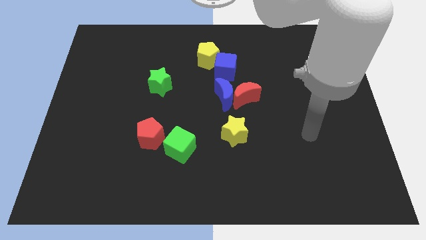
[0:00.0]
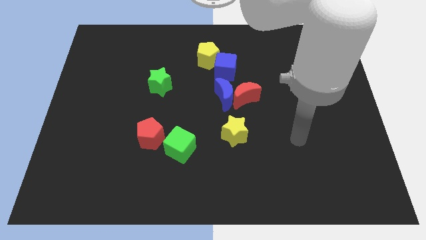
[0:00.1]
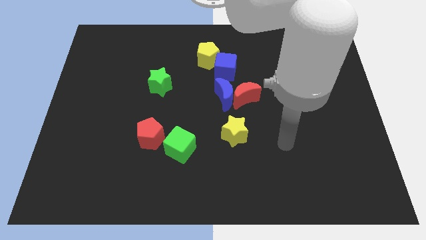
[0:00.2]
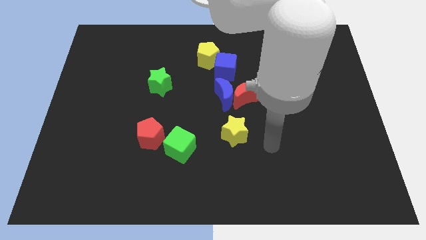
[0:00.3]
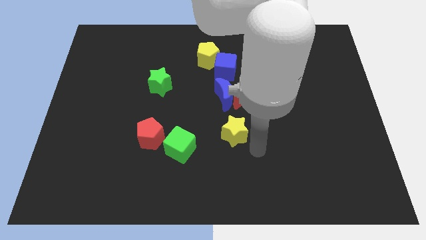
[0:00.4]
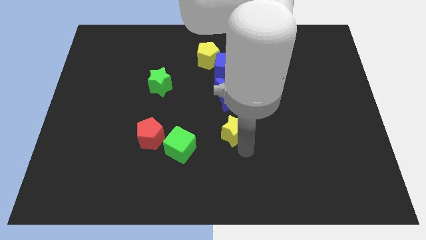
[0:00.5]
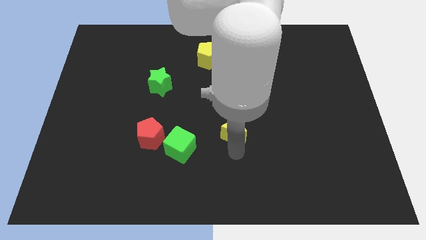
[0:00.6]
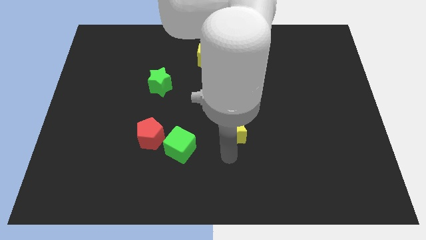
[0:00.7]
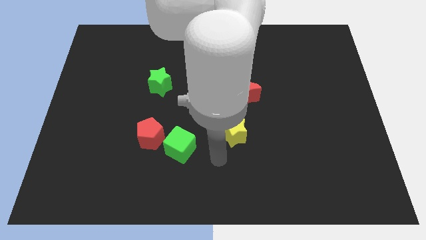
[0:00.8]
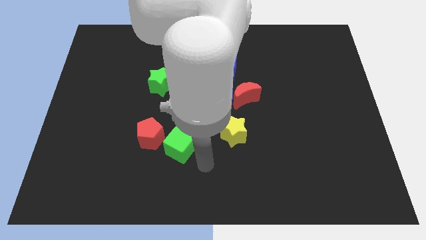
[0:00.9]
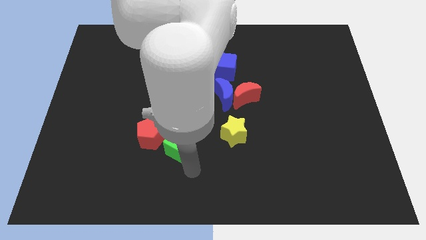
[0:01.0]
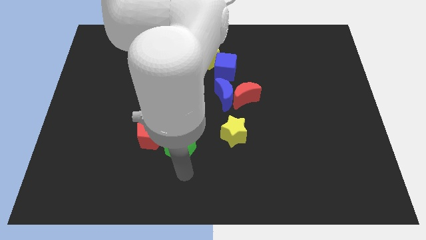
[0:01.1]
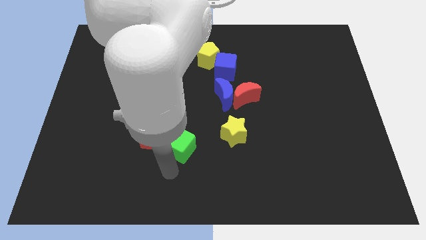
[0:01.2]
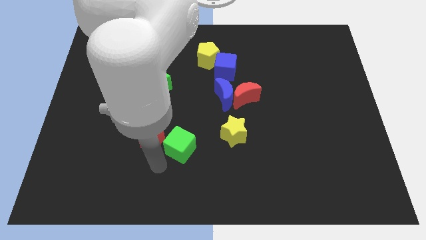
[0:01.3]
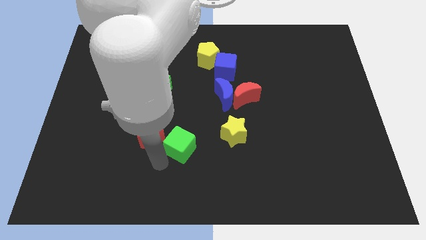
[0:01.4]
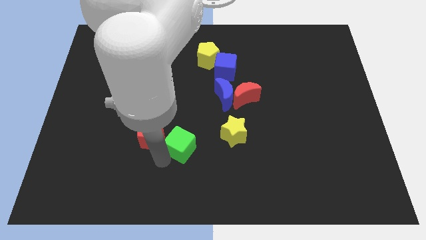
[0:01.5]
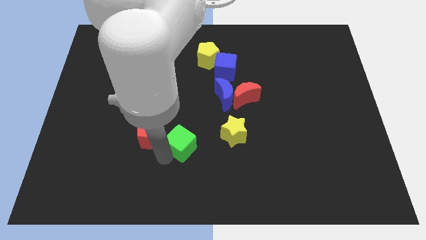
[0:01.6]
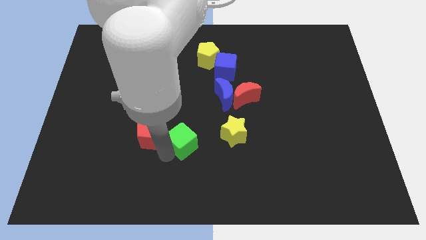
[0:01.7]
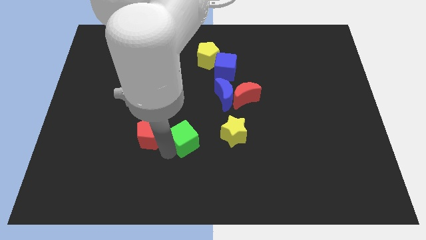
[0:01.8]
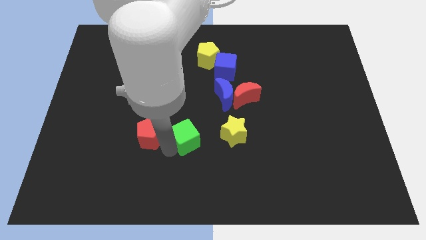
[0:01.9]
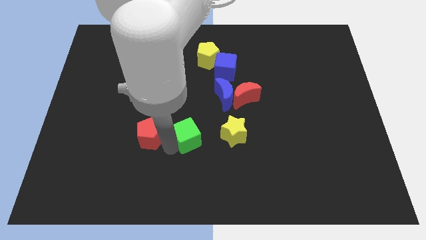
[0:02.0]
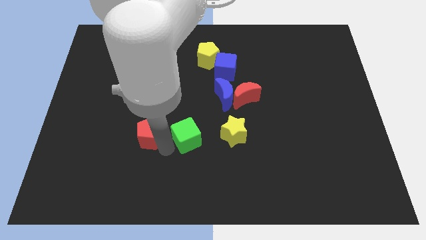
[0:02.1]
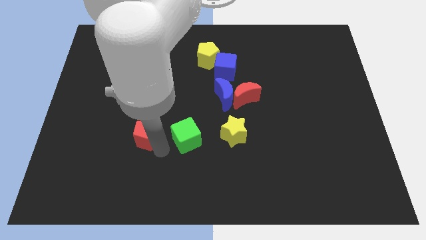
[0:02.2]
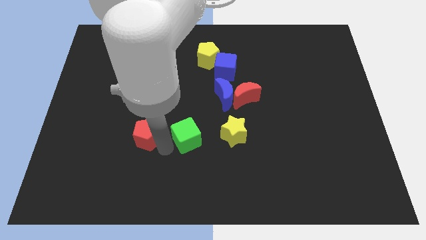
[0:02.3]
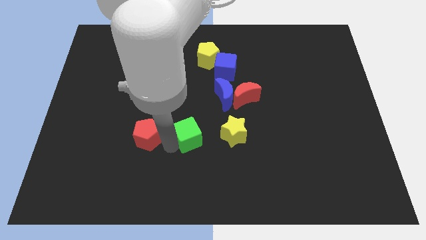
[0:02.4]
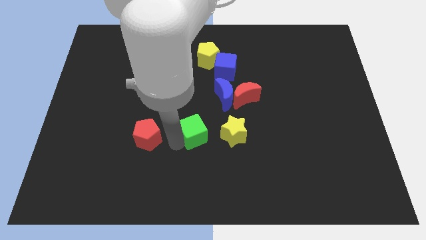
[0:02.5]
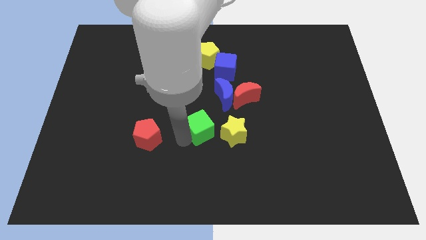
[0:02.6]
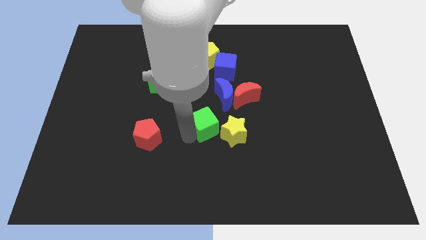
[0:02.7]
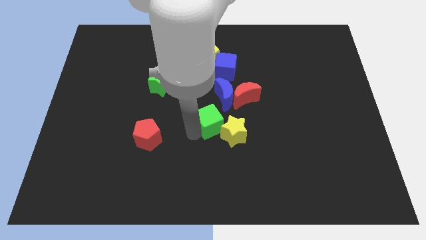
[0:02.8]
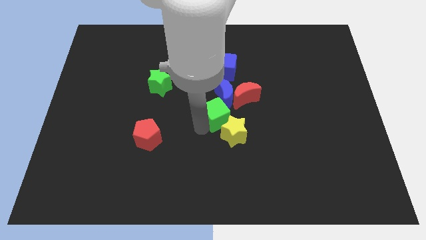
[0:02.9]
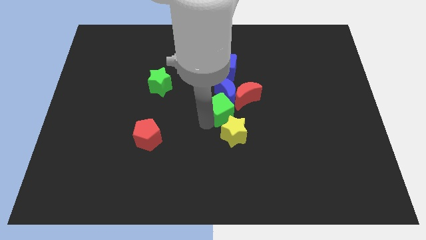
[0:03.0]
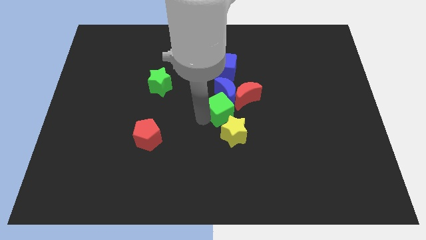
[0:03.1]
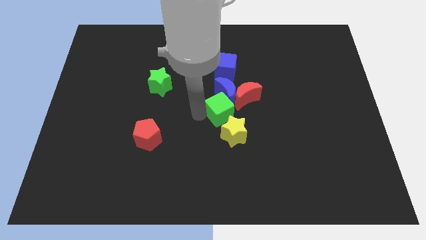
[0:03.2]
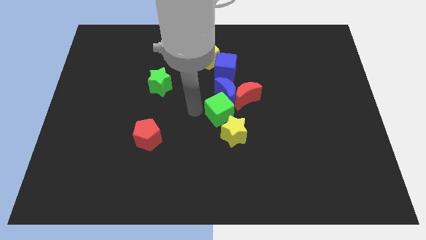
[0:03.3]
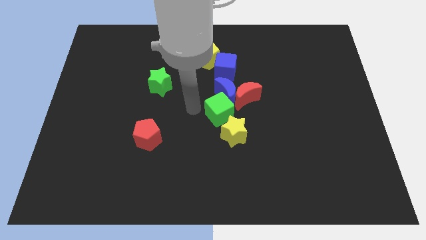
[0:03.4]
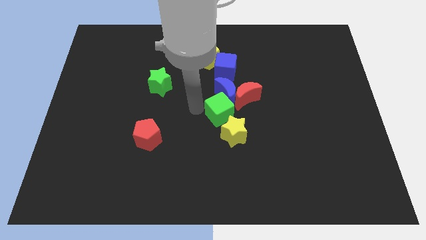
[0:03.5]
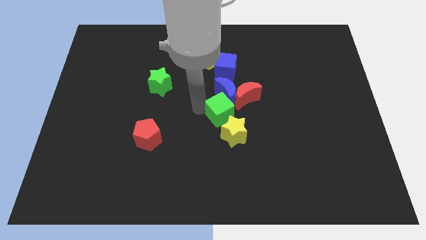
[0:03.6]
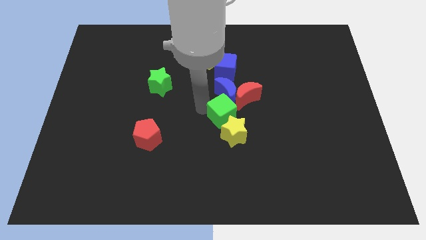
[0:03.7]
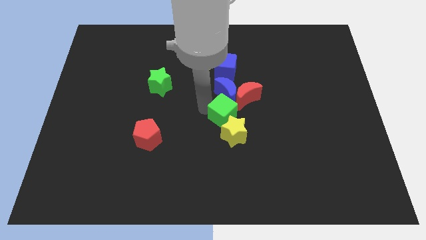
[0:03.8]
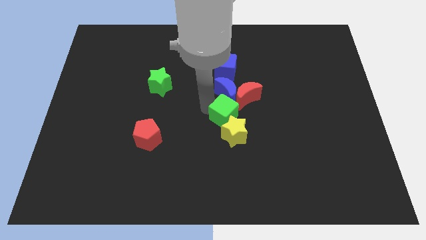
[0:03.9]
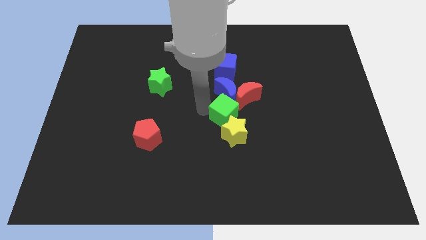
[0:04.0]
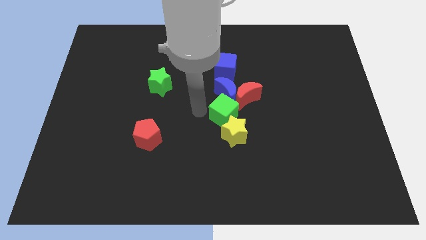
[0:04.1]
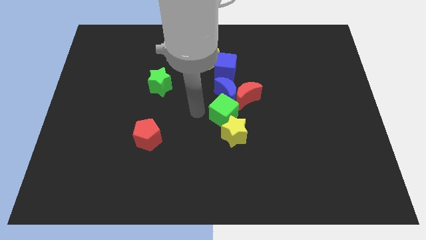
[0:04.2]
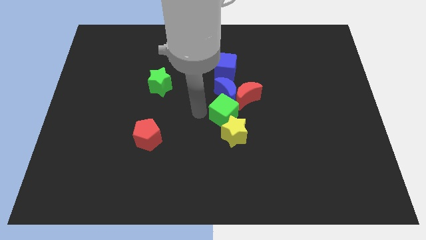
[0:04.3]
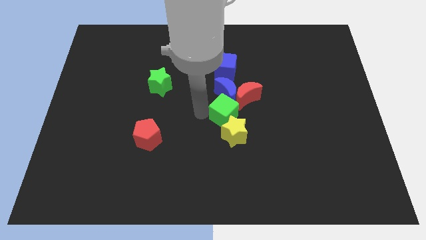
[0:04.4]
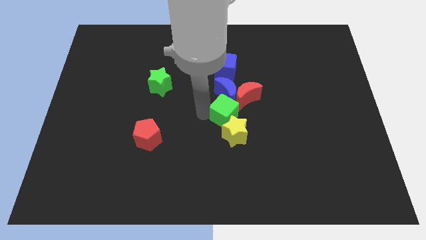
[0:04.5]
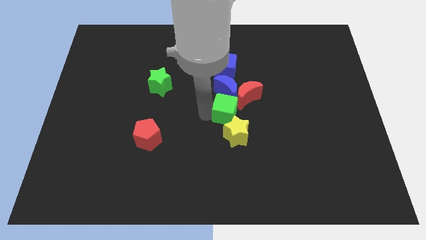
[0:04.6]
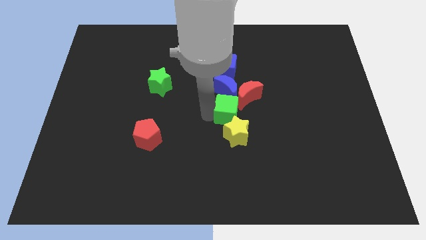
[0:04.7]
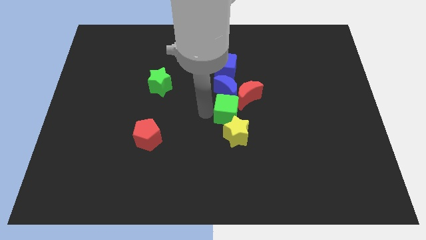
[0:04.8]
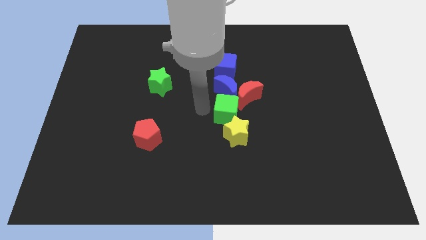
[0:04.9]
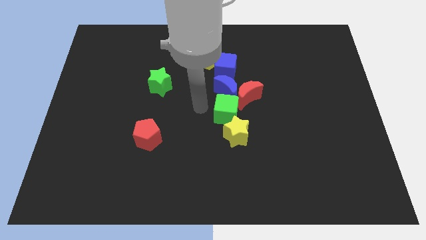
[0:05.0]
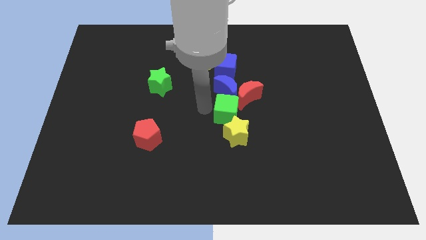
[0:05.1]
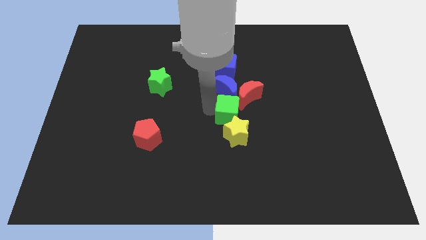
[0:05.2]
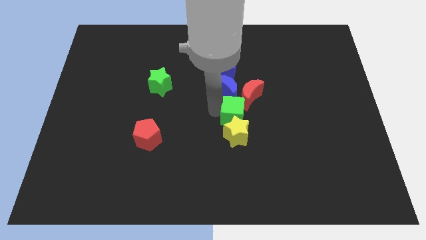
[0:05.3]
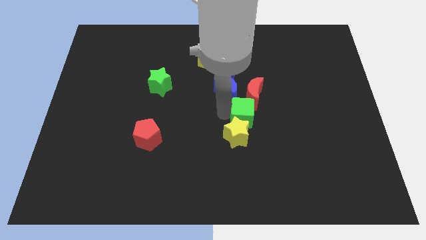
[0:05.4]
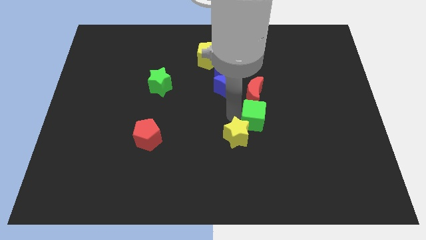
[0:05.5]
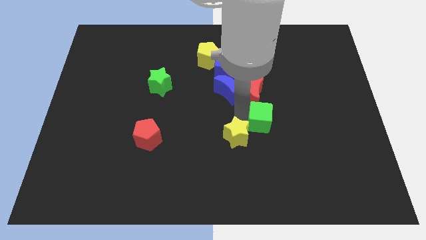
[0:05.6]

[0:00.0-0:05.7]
put the green cube to the bottom right side of the red moon

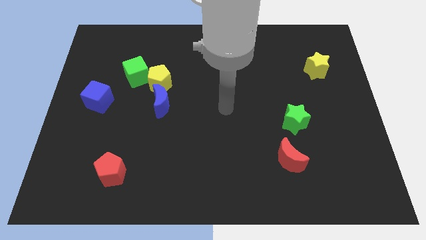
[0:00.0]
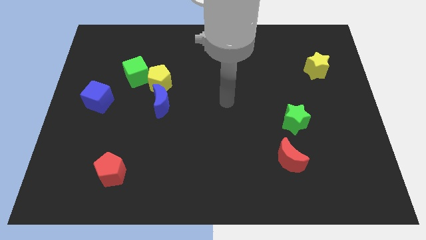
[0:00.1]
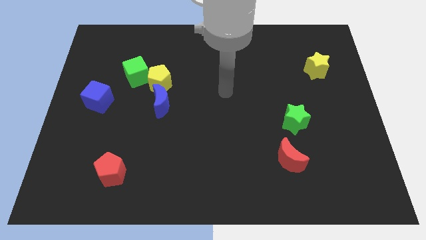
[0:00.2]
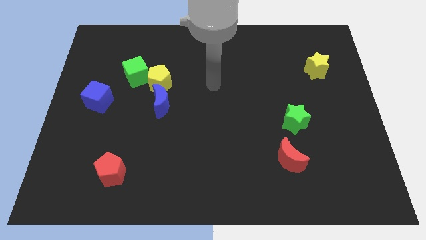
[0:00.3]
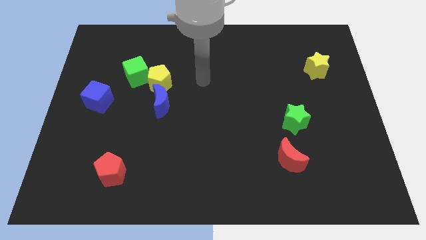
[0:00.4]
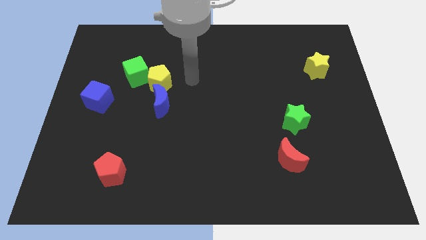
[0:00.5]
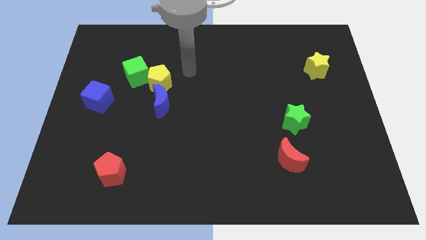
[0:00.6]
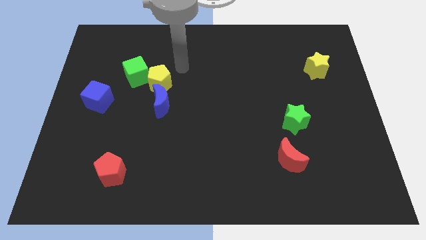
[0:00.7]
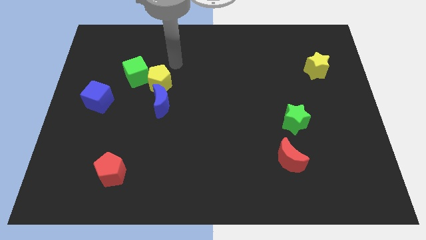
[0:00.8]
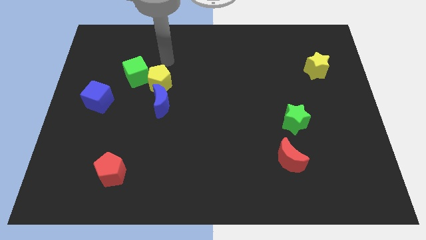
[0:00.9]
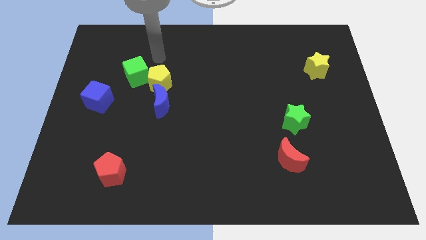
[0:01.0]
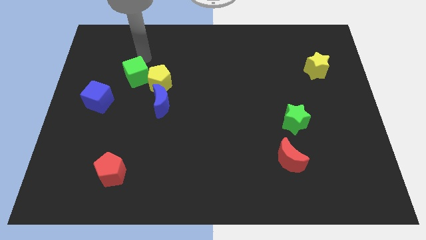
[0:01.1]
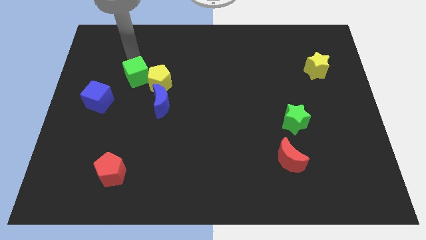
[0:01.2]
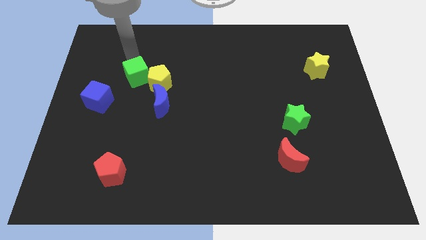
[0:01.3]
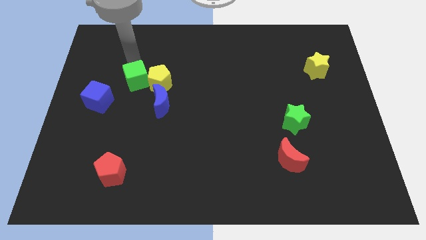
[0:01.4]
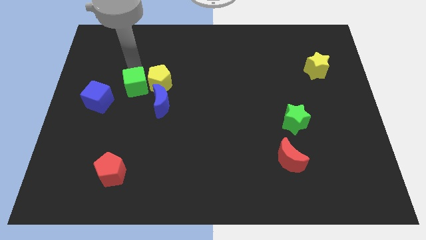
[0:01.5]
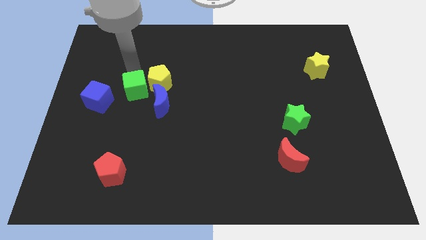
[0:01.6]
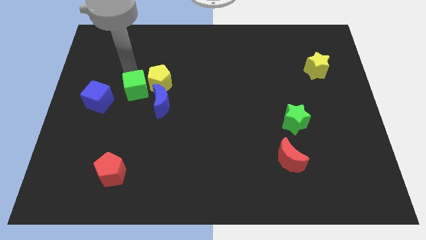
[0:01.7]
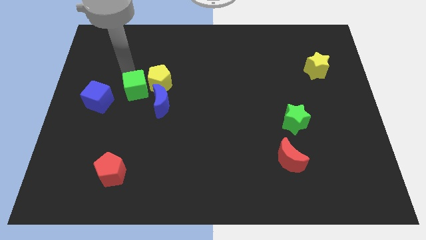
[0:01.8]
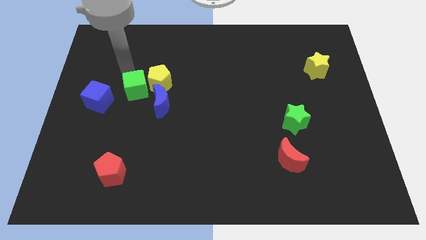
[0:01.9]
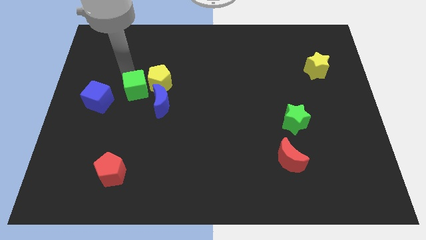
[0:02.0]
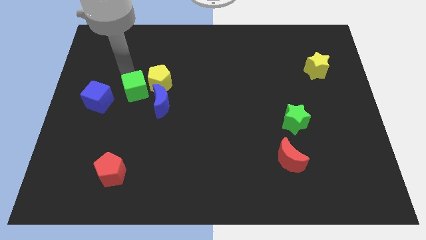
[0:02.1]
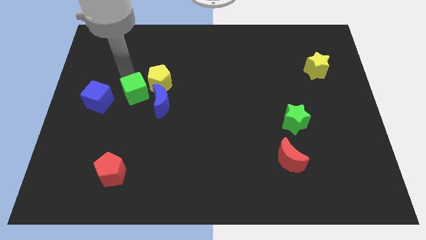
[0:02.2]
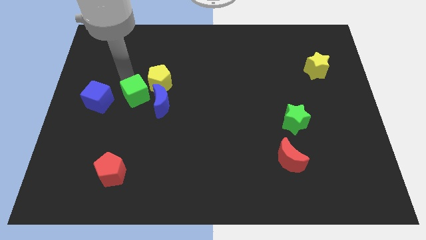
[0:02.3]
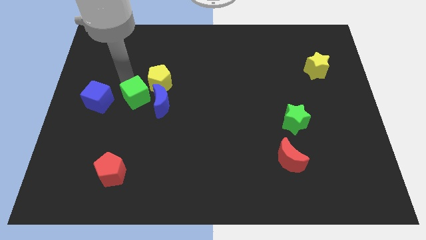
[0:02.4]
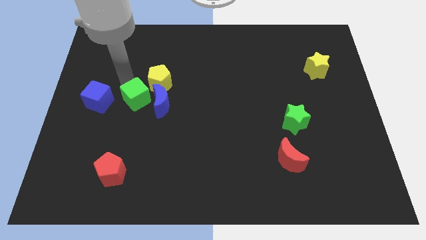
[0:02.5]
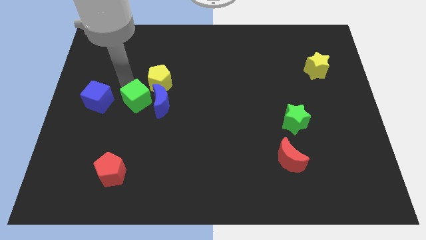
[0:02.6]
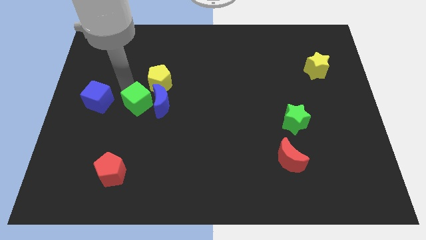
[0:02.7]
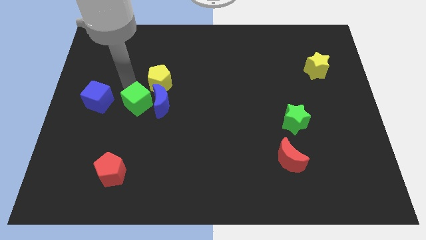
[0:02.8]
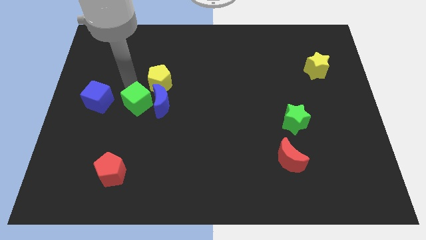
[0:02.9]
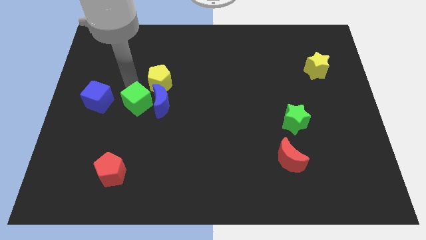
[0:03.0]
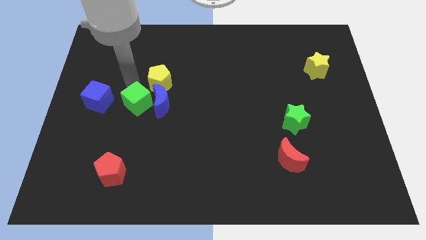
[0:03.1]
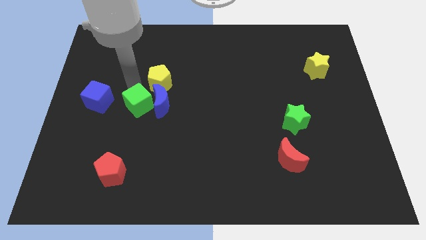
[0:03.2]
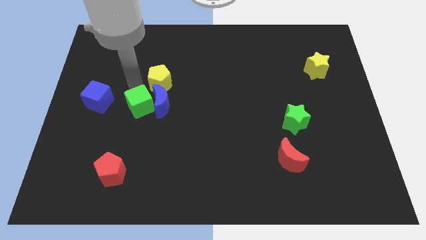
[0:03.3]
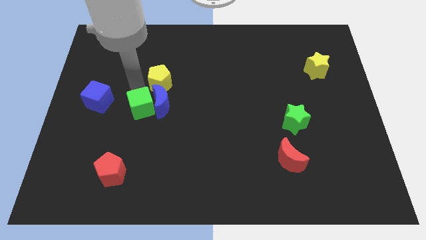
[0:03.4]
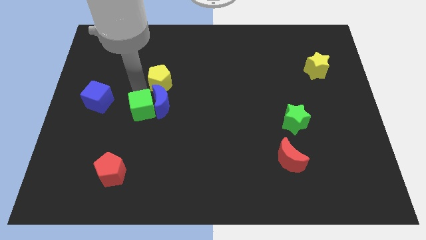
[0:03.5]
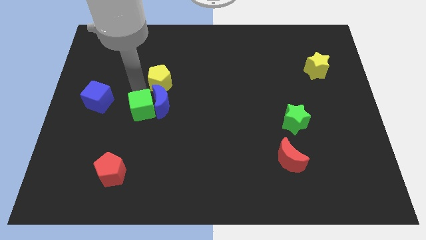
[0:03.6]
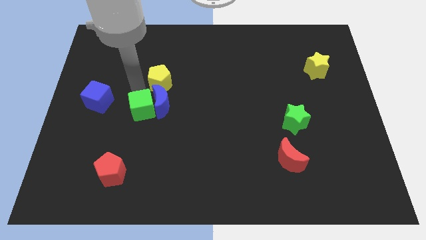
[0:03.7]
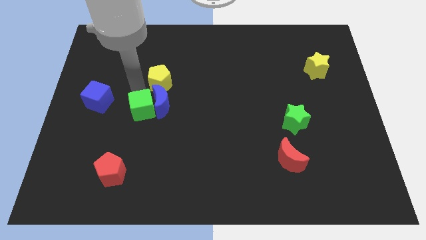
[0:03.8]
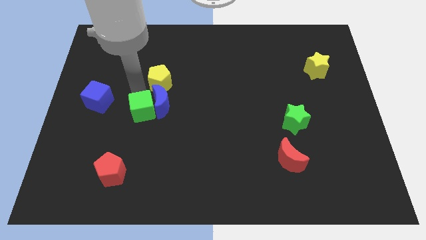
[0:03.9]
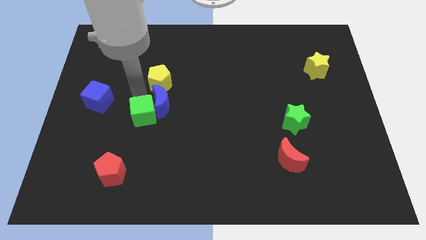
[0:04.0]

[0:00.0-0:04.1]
put the green cube below the blue moon
